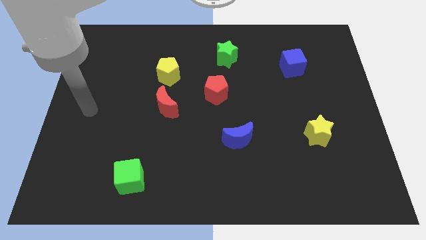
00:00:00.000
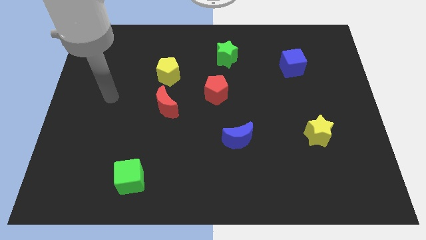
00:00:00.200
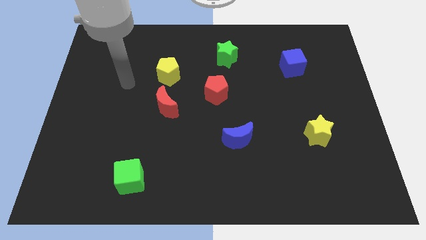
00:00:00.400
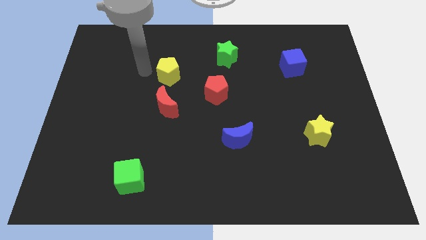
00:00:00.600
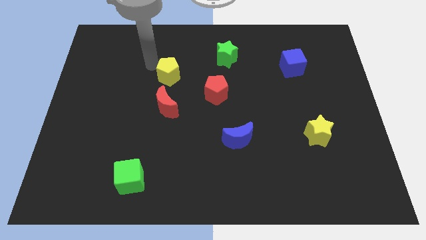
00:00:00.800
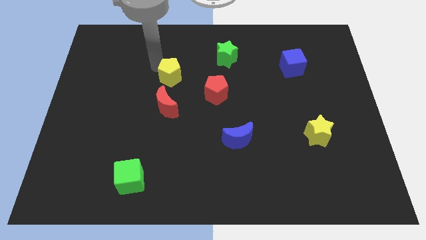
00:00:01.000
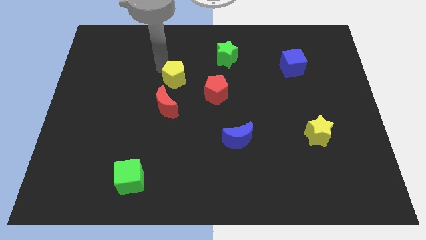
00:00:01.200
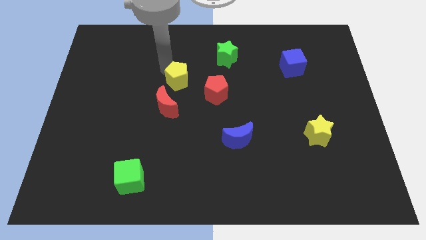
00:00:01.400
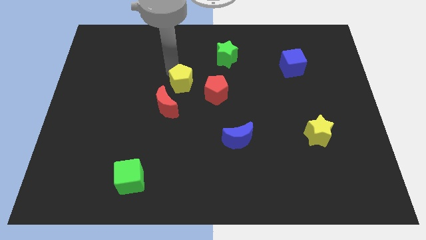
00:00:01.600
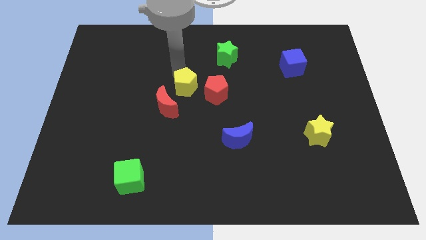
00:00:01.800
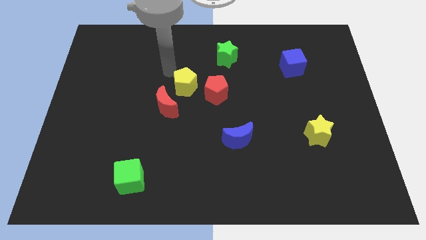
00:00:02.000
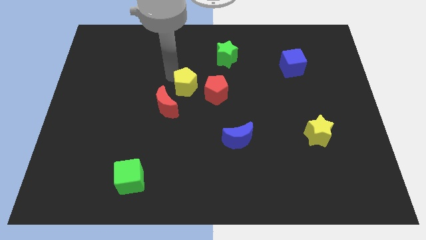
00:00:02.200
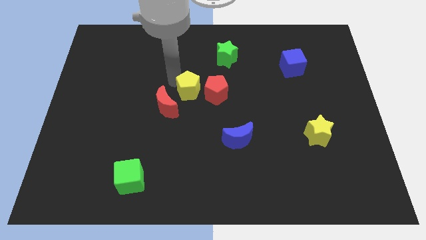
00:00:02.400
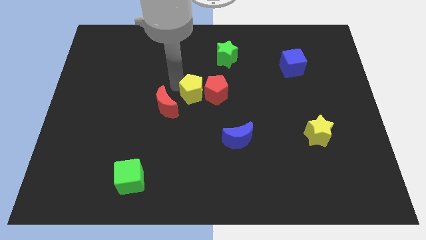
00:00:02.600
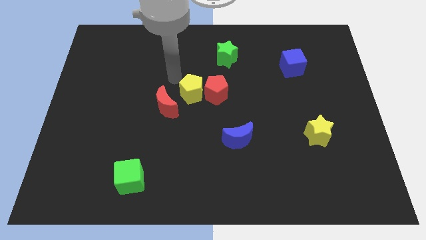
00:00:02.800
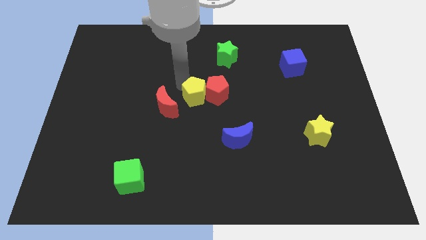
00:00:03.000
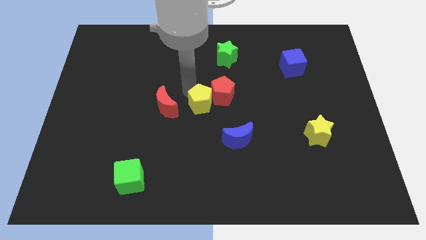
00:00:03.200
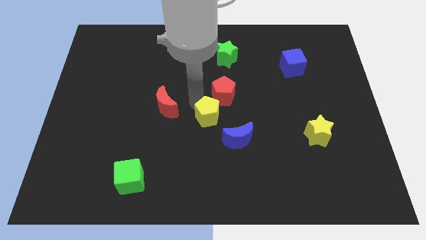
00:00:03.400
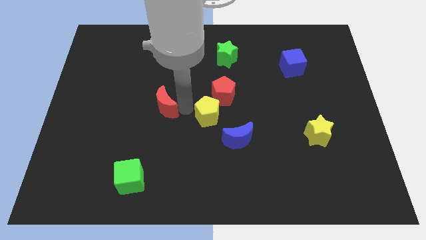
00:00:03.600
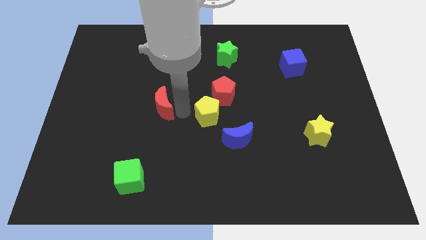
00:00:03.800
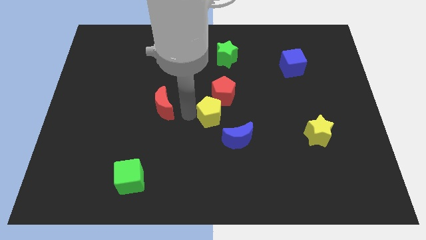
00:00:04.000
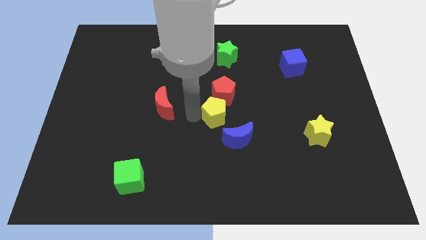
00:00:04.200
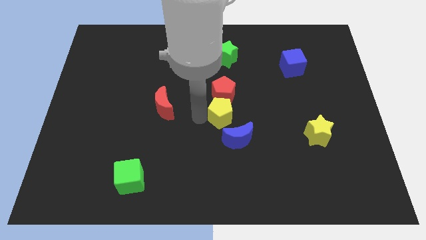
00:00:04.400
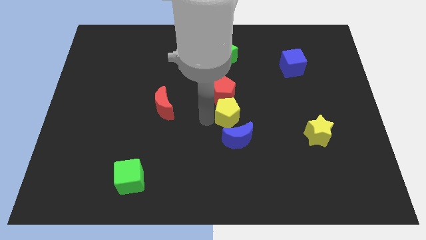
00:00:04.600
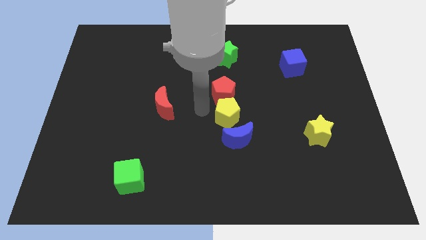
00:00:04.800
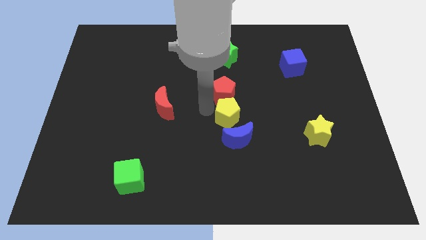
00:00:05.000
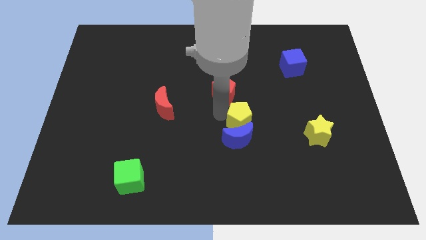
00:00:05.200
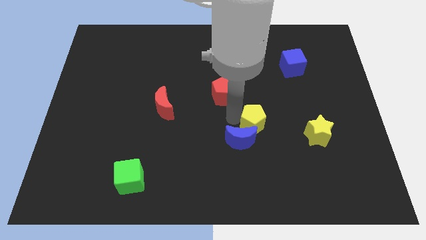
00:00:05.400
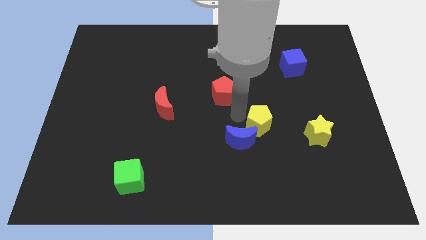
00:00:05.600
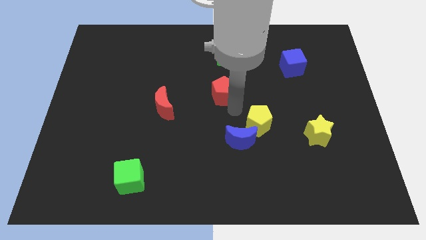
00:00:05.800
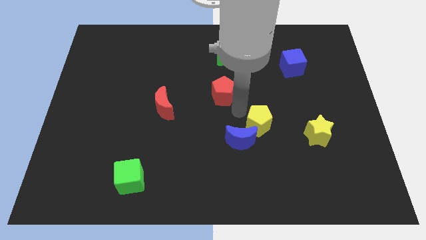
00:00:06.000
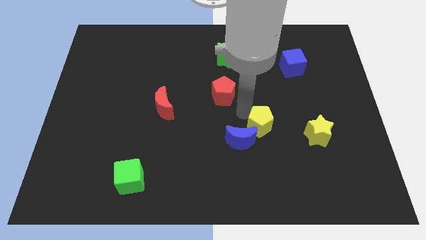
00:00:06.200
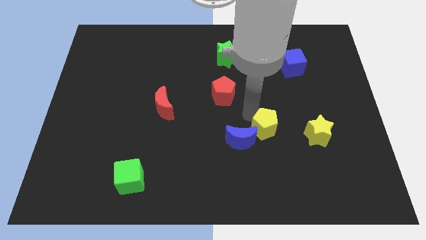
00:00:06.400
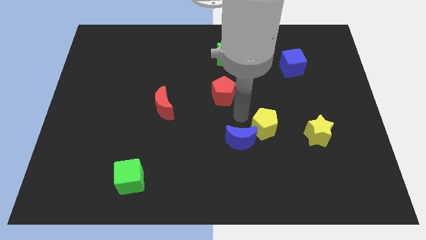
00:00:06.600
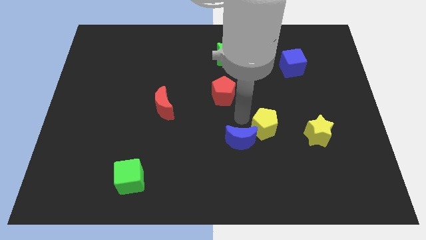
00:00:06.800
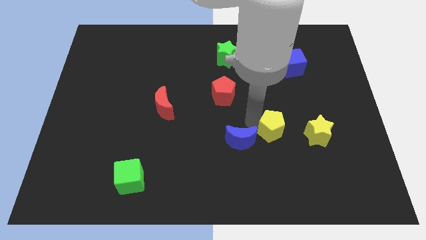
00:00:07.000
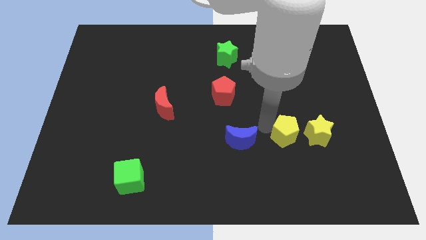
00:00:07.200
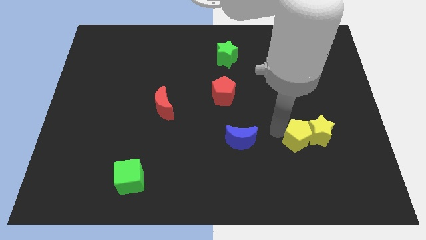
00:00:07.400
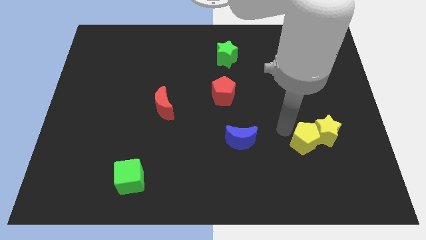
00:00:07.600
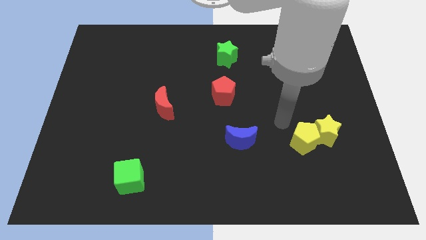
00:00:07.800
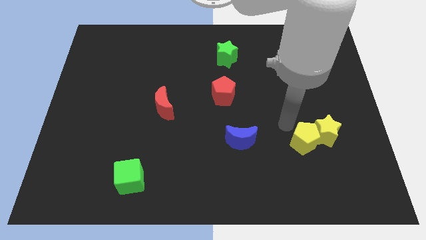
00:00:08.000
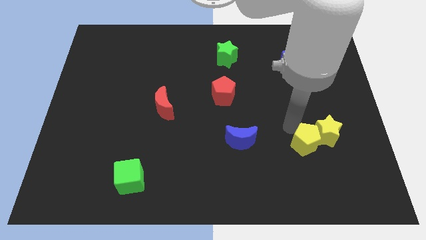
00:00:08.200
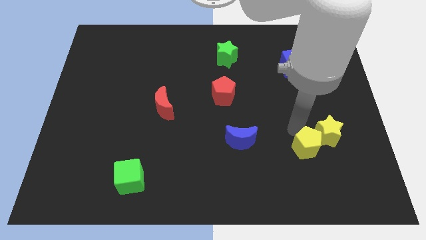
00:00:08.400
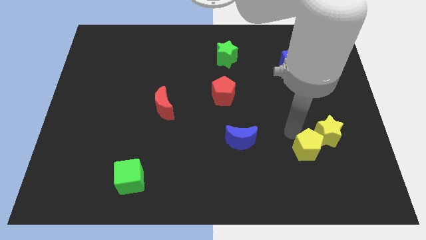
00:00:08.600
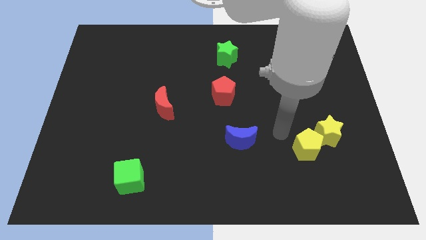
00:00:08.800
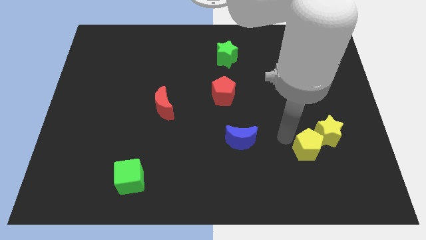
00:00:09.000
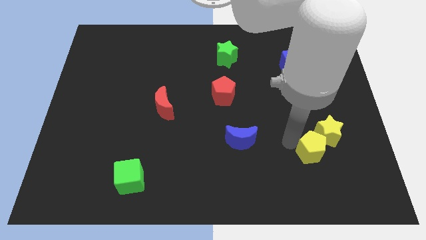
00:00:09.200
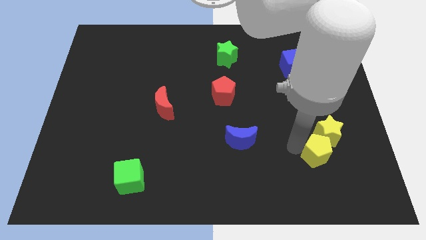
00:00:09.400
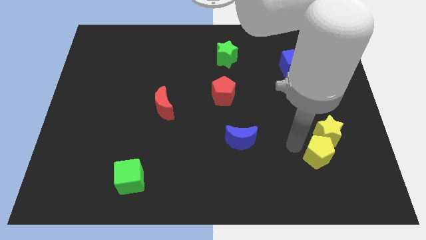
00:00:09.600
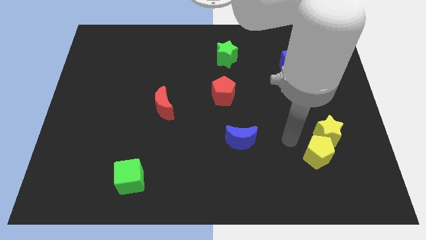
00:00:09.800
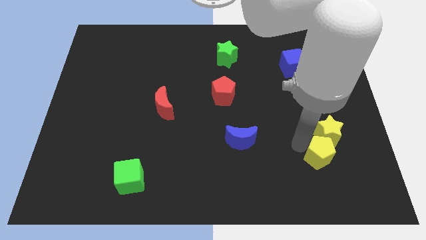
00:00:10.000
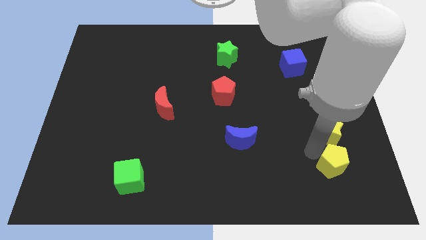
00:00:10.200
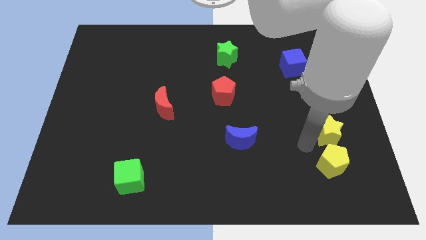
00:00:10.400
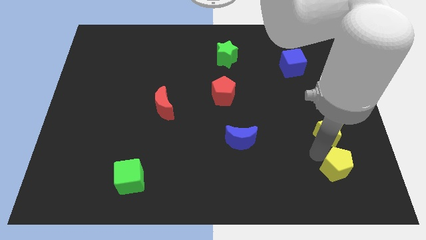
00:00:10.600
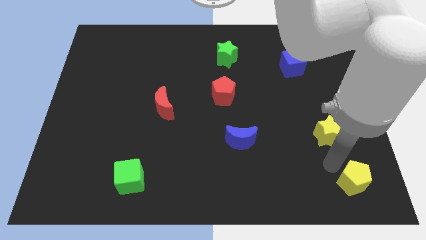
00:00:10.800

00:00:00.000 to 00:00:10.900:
slide the yellow pentagon to the bottom right corner

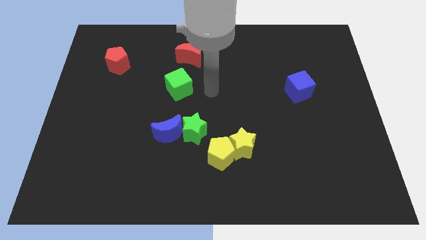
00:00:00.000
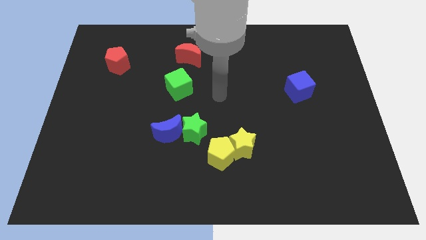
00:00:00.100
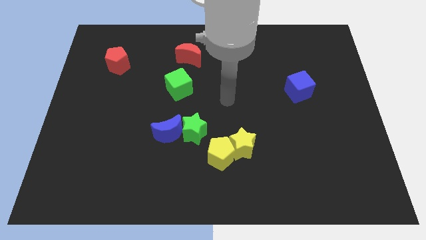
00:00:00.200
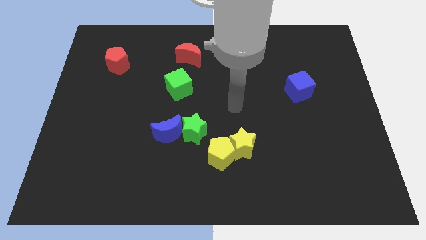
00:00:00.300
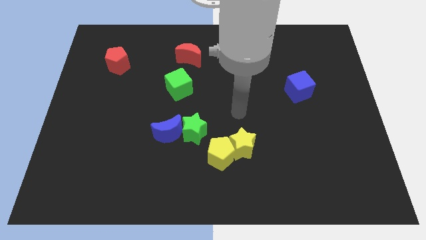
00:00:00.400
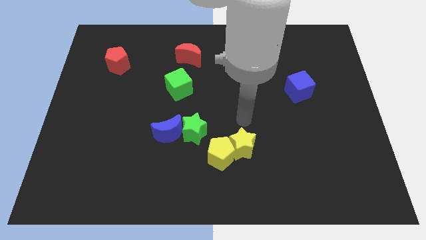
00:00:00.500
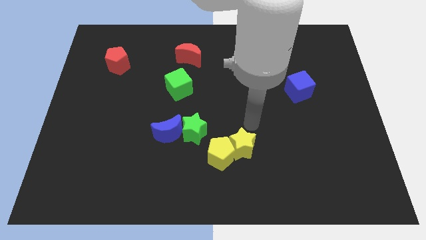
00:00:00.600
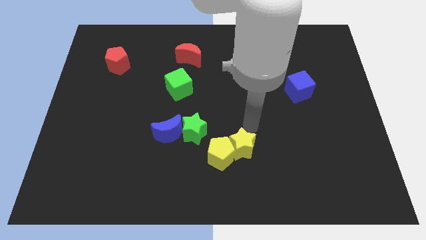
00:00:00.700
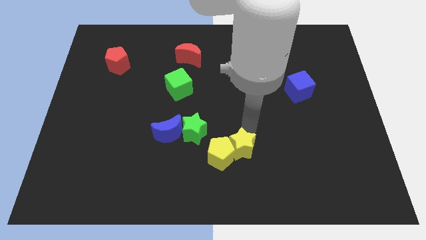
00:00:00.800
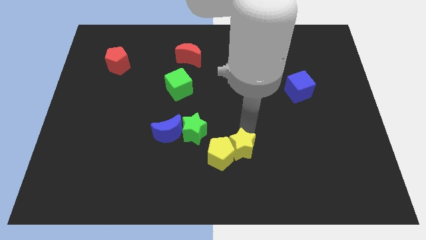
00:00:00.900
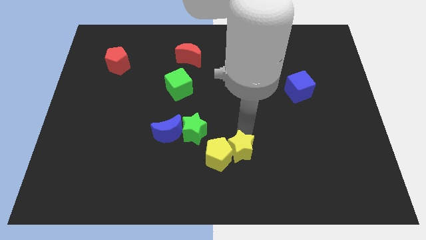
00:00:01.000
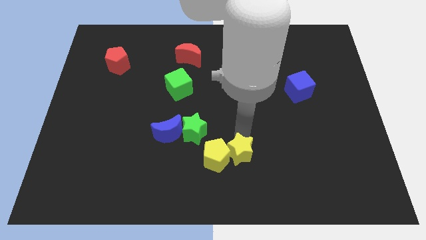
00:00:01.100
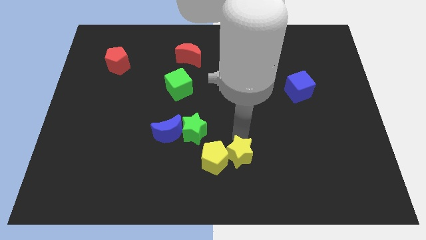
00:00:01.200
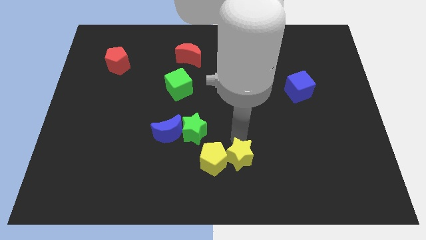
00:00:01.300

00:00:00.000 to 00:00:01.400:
put the yellow star to the bottom side
